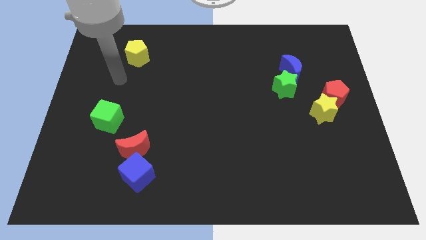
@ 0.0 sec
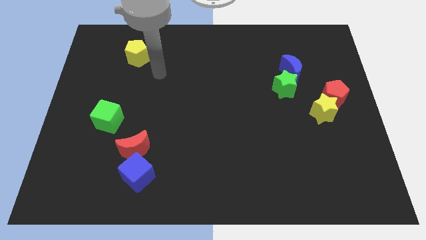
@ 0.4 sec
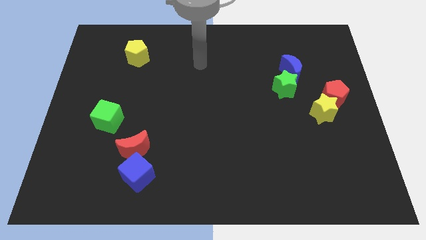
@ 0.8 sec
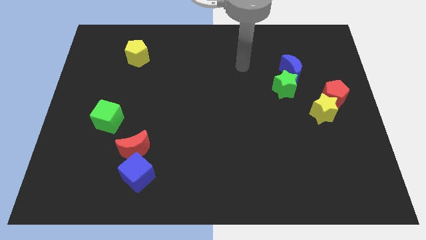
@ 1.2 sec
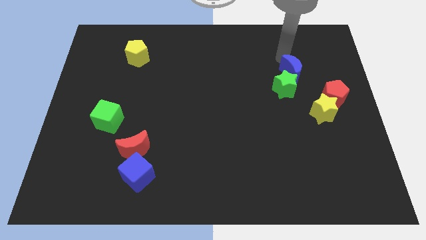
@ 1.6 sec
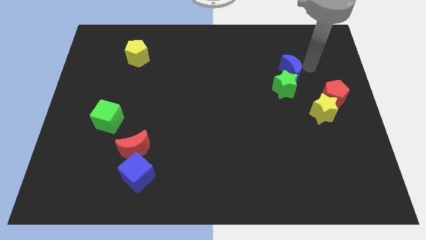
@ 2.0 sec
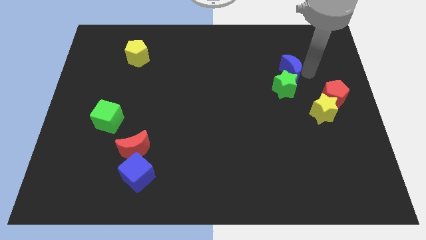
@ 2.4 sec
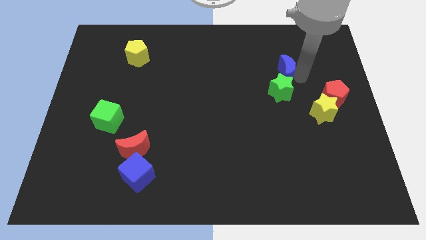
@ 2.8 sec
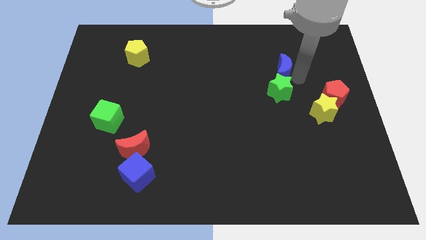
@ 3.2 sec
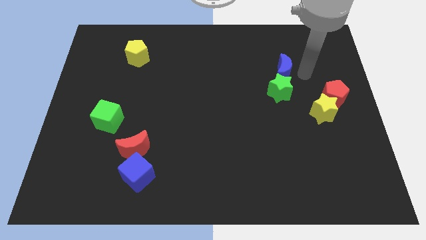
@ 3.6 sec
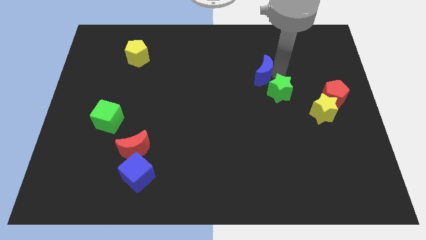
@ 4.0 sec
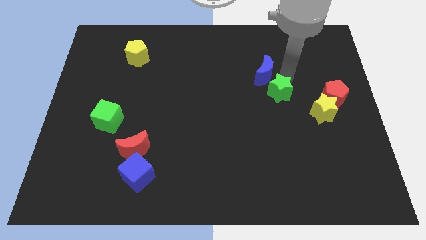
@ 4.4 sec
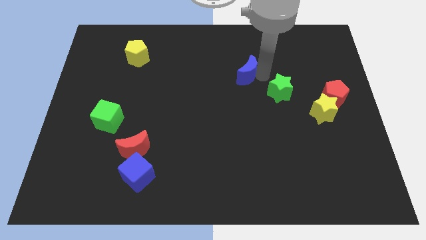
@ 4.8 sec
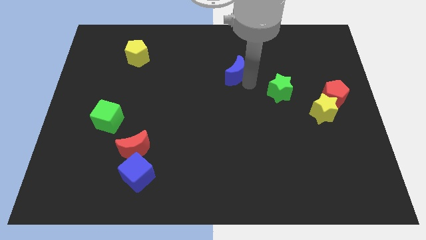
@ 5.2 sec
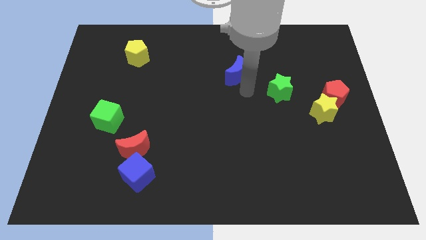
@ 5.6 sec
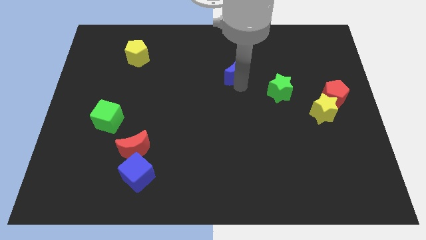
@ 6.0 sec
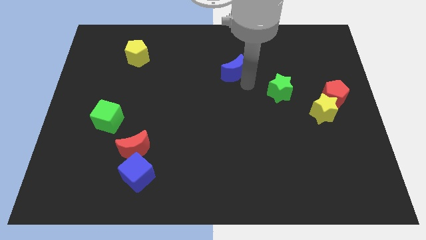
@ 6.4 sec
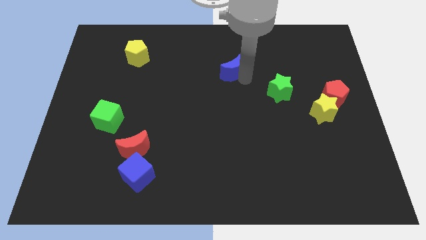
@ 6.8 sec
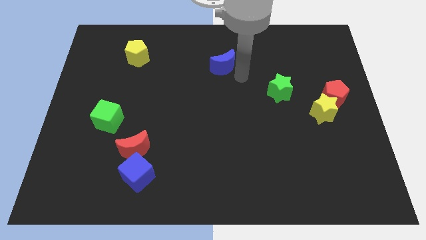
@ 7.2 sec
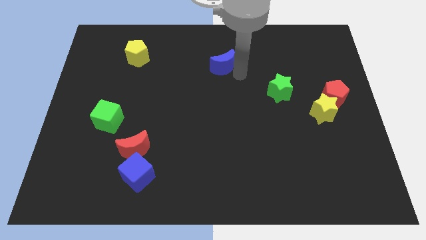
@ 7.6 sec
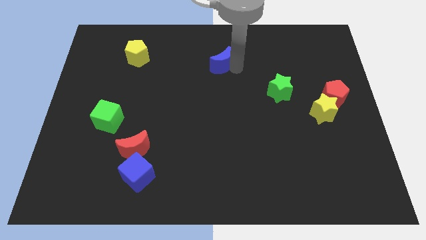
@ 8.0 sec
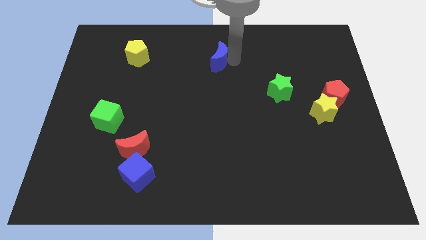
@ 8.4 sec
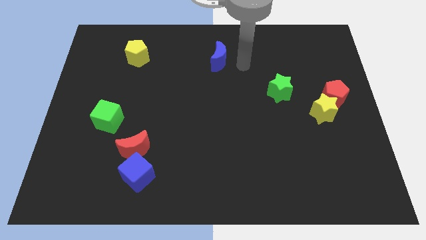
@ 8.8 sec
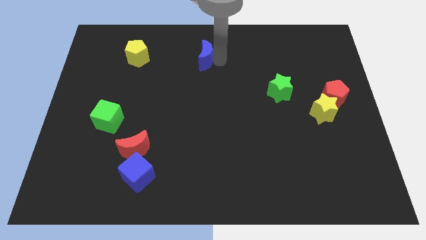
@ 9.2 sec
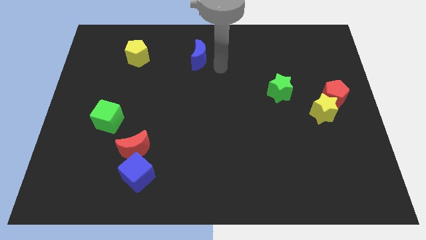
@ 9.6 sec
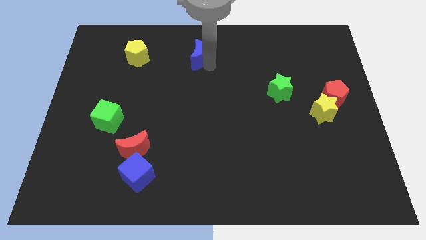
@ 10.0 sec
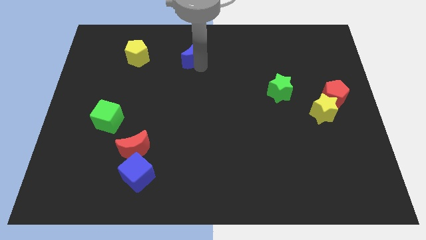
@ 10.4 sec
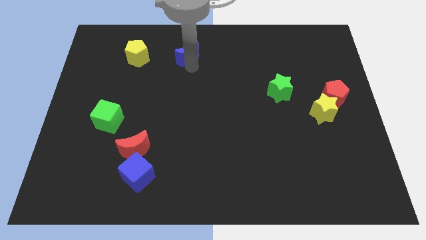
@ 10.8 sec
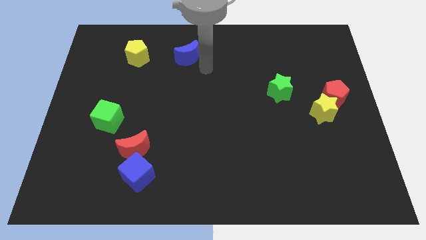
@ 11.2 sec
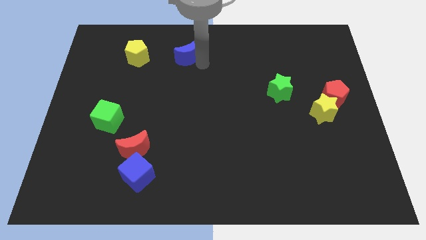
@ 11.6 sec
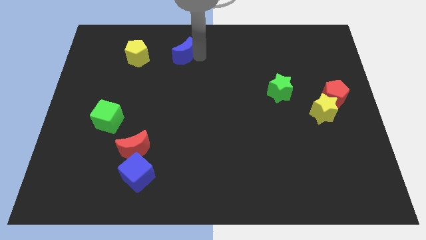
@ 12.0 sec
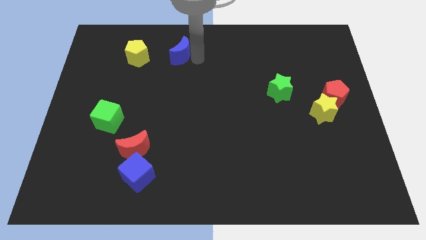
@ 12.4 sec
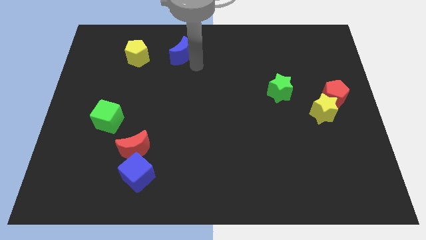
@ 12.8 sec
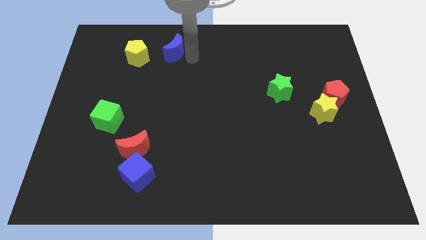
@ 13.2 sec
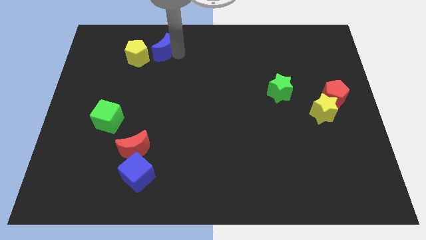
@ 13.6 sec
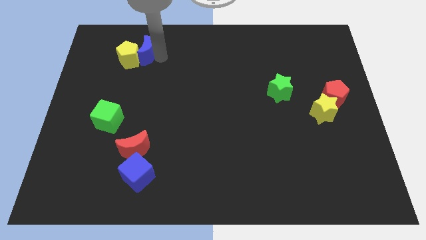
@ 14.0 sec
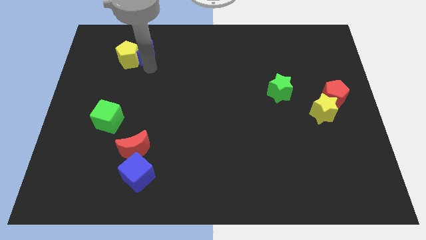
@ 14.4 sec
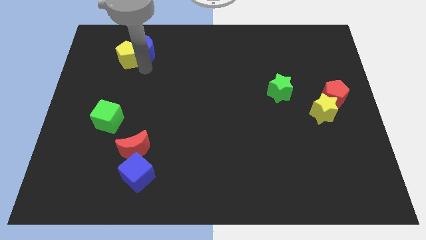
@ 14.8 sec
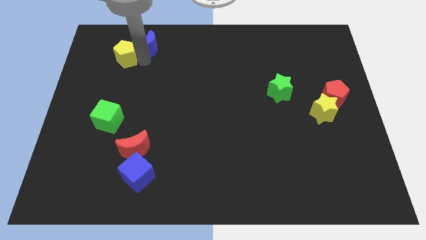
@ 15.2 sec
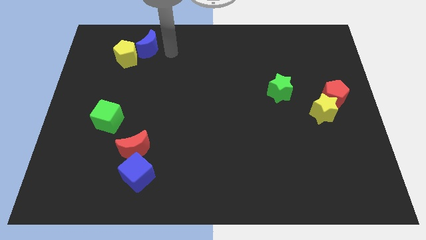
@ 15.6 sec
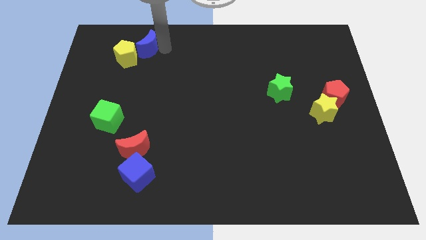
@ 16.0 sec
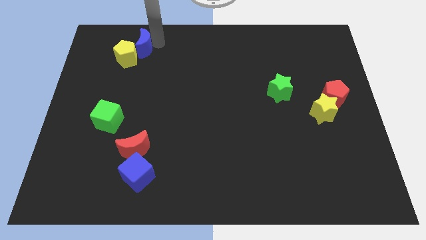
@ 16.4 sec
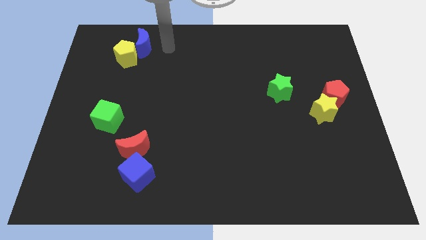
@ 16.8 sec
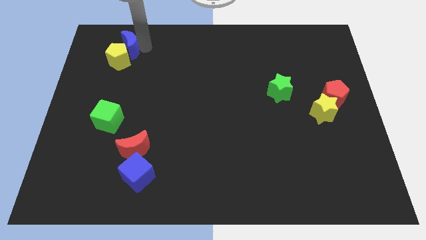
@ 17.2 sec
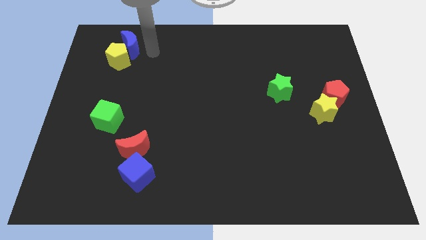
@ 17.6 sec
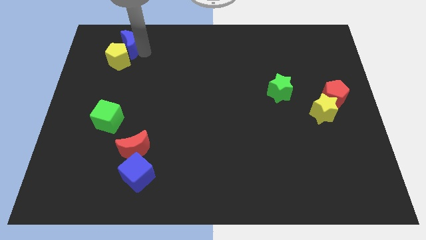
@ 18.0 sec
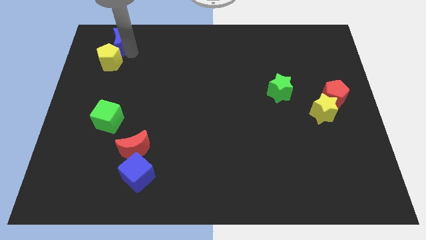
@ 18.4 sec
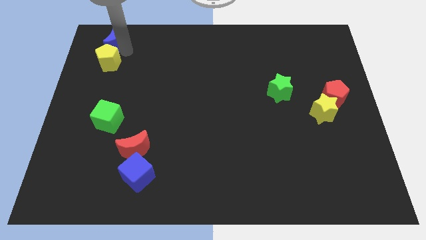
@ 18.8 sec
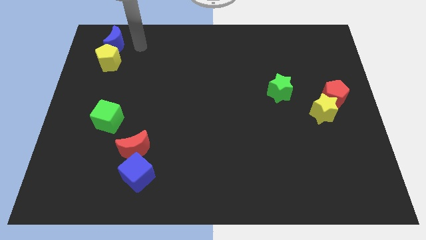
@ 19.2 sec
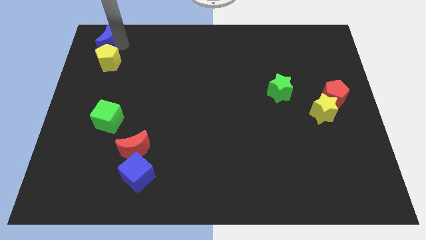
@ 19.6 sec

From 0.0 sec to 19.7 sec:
put the blue moon to the upper left corner

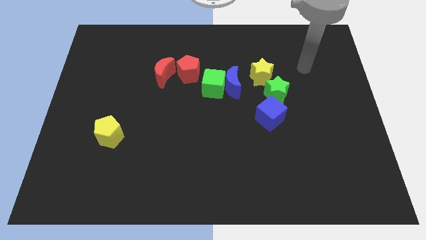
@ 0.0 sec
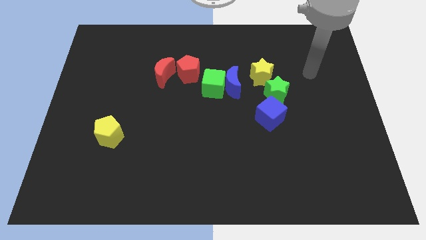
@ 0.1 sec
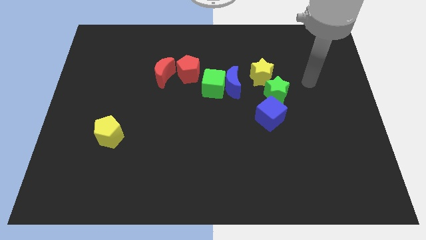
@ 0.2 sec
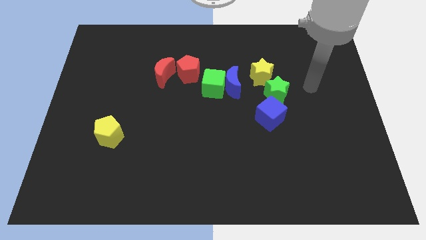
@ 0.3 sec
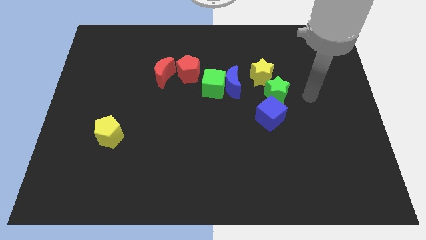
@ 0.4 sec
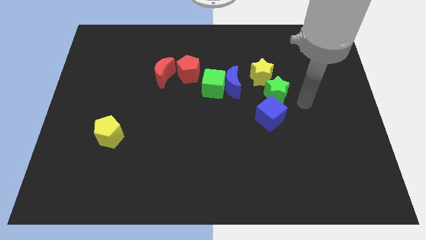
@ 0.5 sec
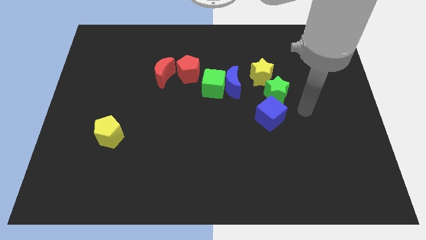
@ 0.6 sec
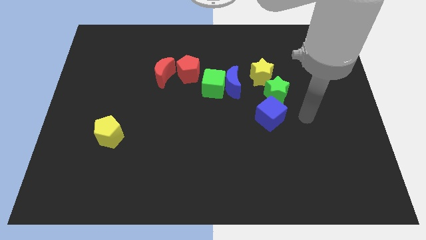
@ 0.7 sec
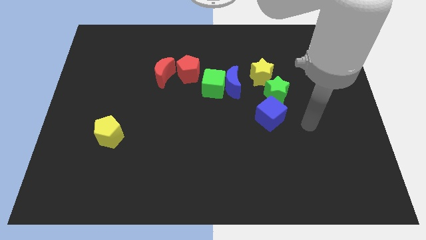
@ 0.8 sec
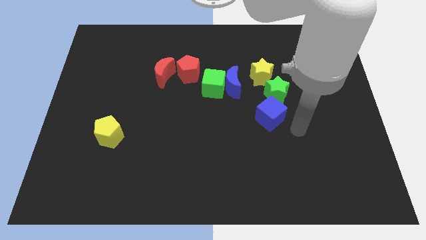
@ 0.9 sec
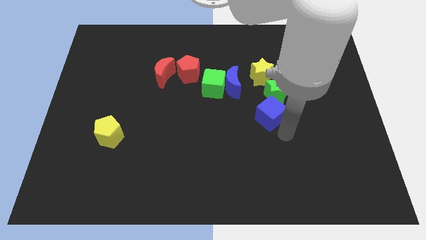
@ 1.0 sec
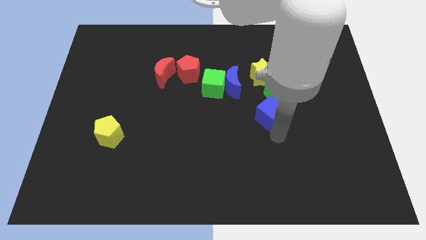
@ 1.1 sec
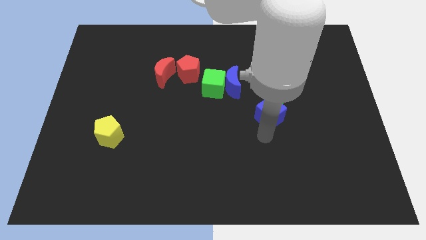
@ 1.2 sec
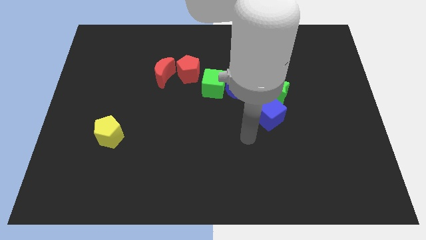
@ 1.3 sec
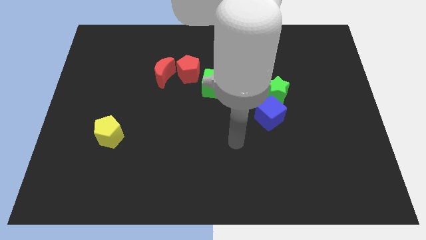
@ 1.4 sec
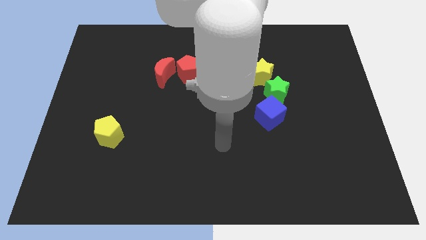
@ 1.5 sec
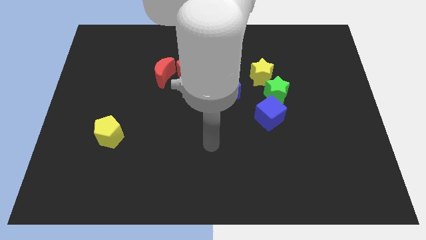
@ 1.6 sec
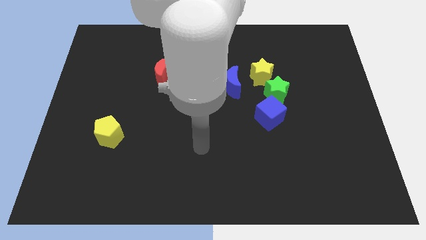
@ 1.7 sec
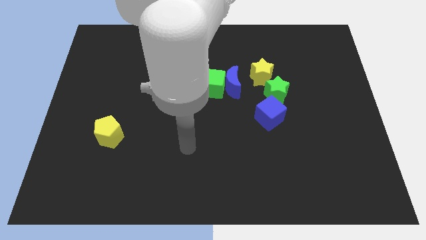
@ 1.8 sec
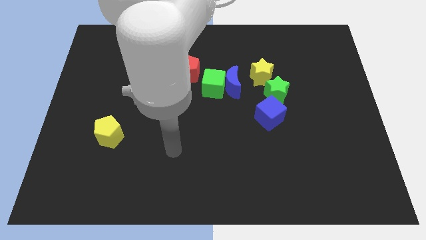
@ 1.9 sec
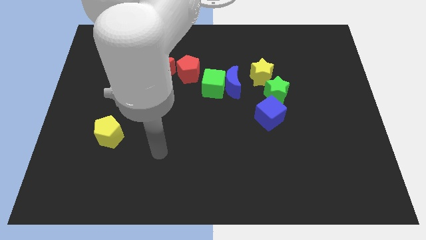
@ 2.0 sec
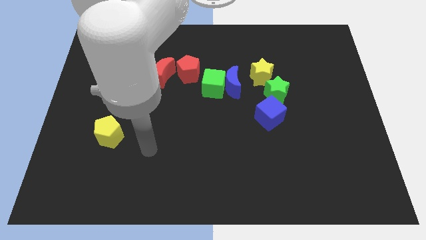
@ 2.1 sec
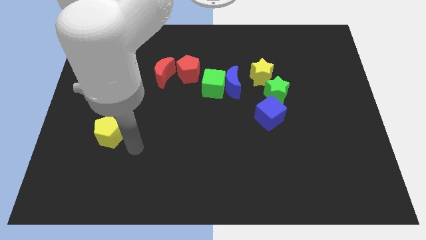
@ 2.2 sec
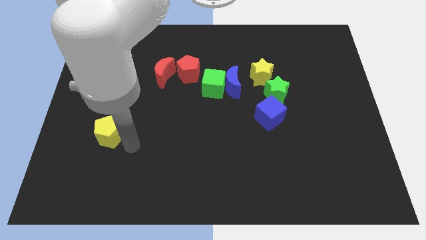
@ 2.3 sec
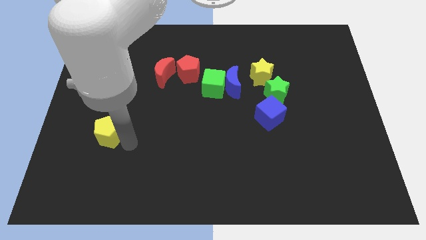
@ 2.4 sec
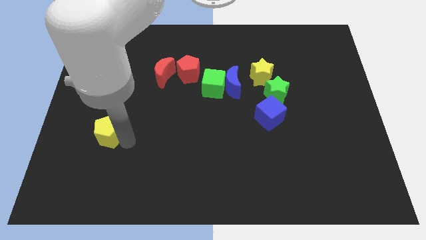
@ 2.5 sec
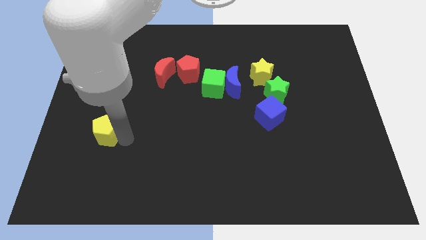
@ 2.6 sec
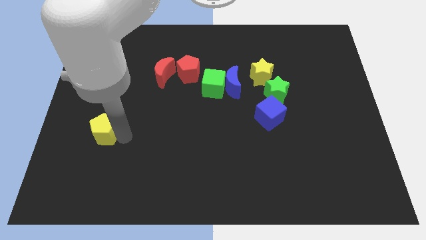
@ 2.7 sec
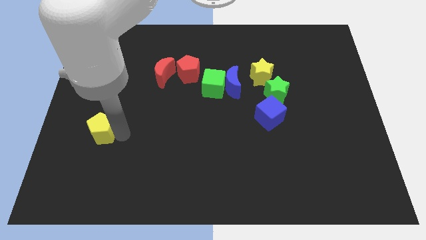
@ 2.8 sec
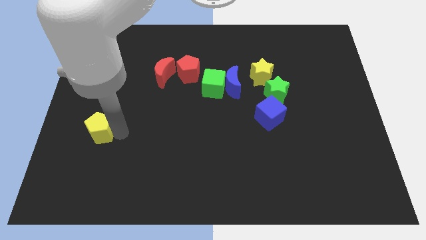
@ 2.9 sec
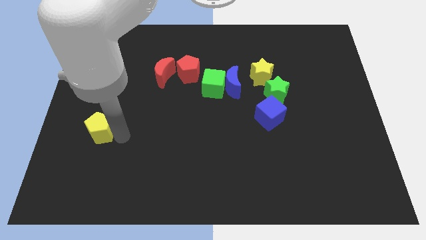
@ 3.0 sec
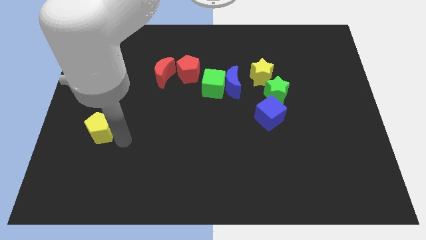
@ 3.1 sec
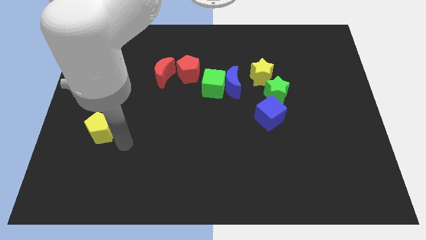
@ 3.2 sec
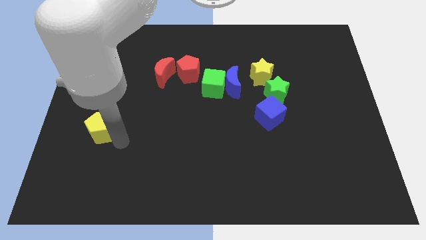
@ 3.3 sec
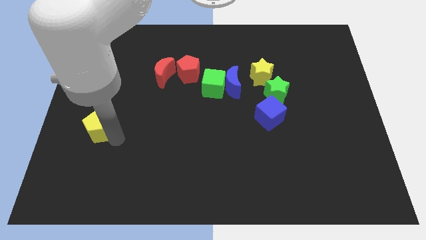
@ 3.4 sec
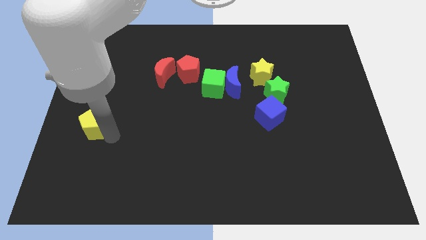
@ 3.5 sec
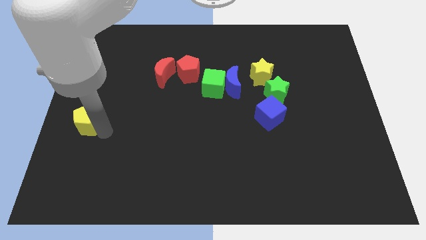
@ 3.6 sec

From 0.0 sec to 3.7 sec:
push the yellow pentagon to the left side
